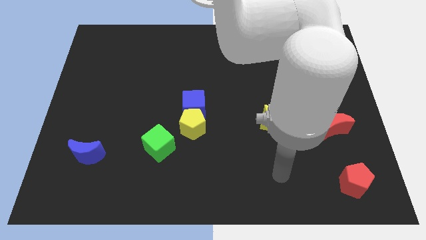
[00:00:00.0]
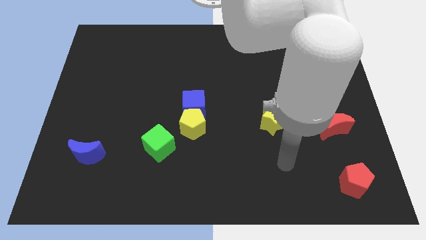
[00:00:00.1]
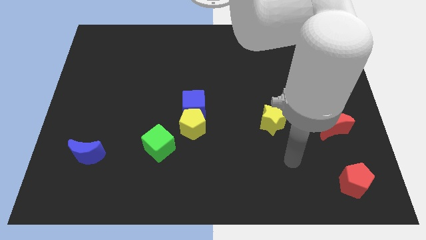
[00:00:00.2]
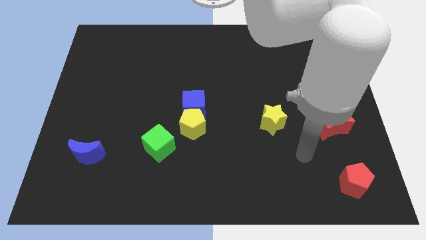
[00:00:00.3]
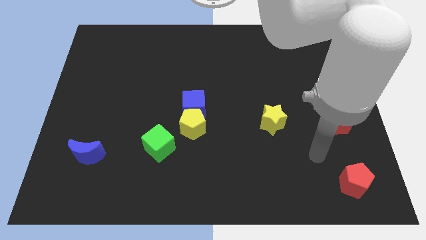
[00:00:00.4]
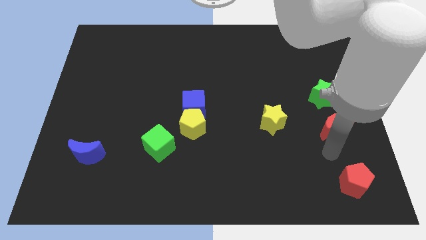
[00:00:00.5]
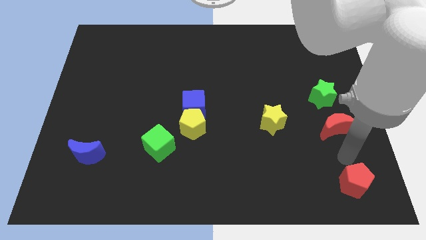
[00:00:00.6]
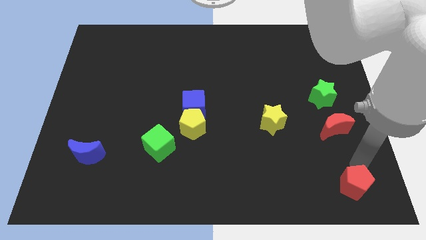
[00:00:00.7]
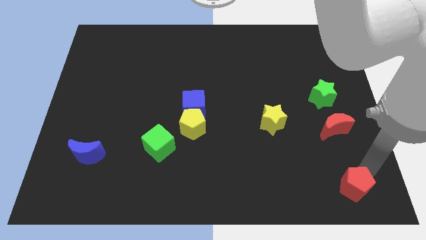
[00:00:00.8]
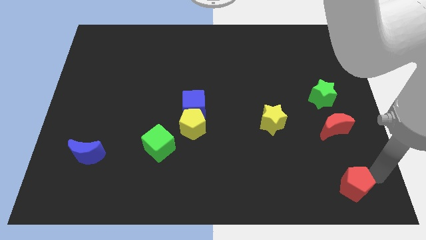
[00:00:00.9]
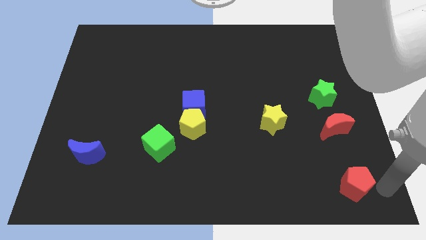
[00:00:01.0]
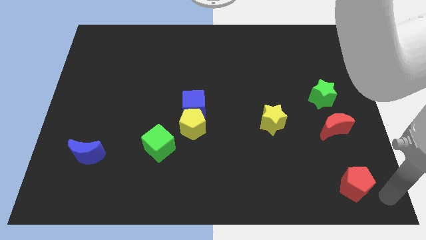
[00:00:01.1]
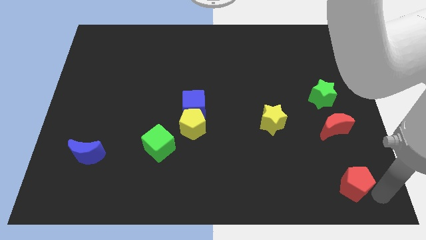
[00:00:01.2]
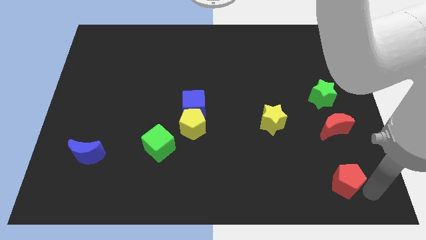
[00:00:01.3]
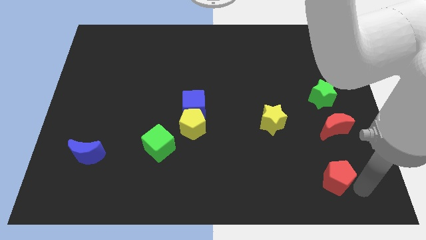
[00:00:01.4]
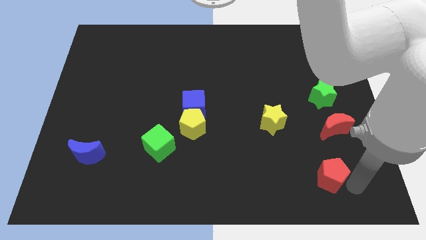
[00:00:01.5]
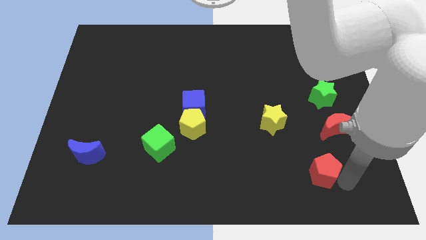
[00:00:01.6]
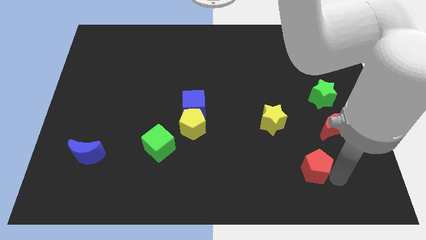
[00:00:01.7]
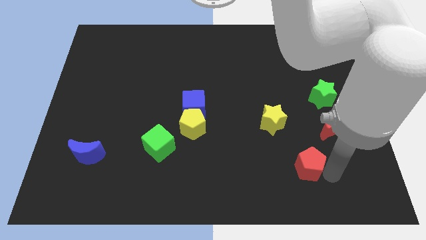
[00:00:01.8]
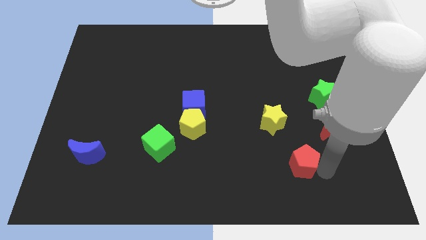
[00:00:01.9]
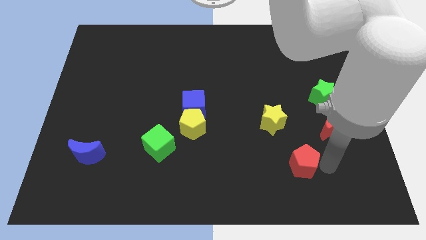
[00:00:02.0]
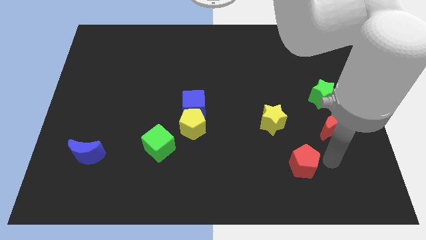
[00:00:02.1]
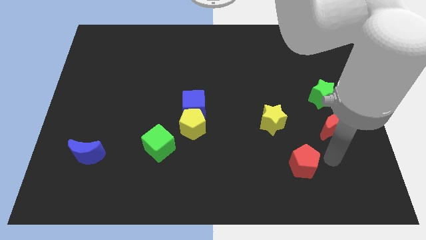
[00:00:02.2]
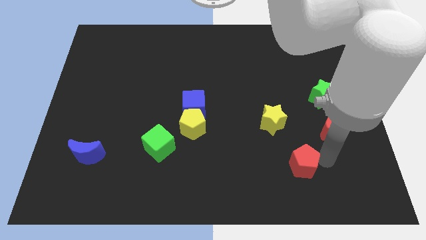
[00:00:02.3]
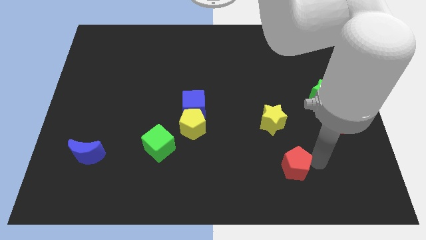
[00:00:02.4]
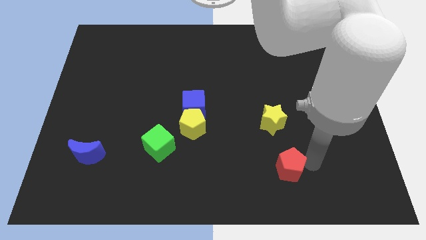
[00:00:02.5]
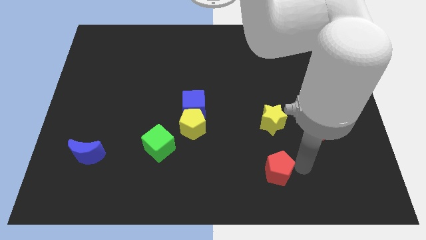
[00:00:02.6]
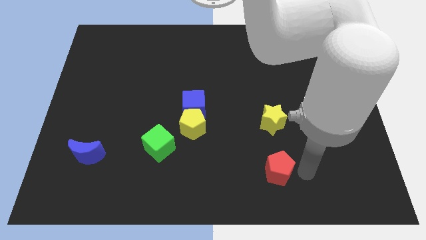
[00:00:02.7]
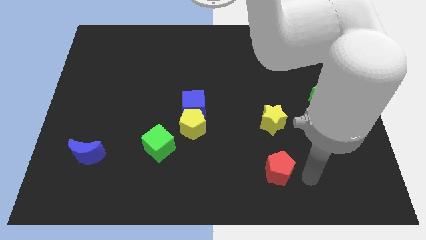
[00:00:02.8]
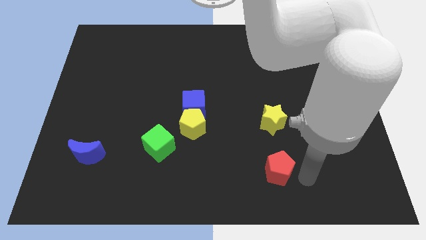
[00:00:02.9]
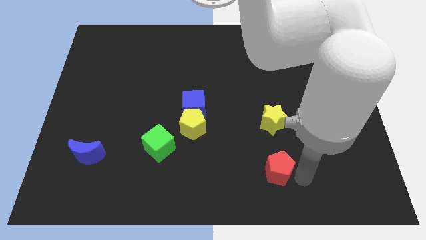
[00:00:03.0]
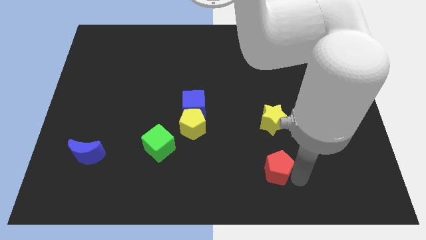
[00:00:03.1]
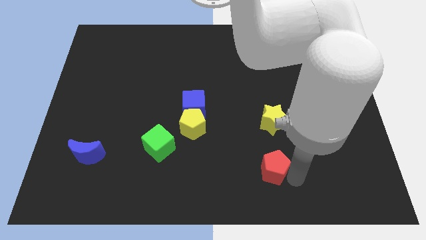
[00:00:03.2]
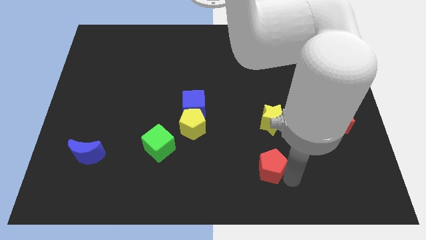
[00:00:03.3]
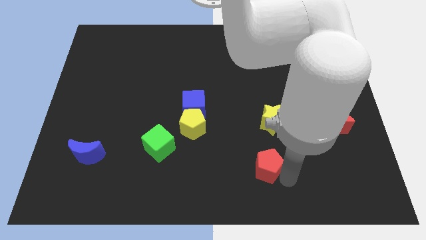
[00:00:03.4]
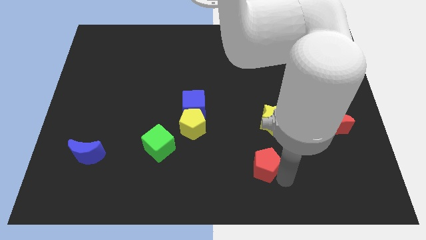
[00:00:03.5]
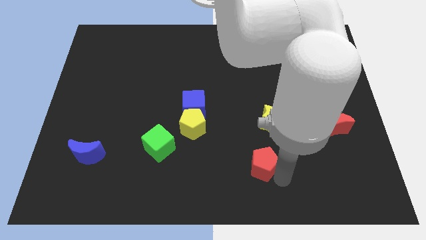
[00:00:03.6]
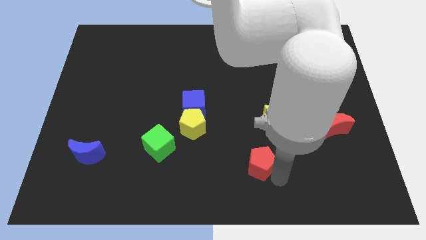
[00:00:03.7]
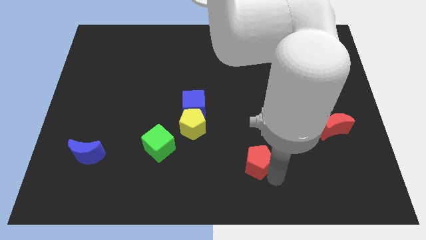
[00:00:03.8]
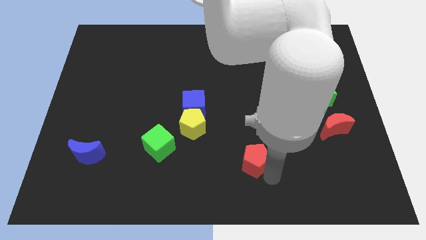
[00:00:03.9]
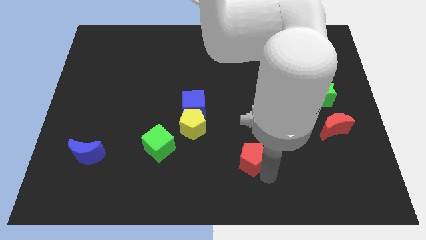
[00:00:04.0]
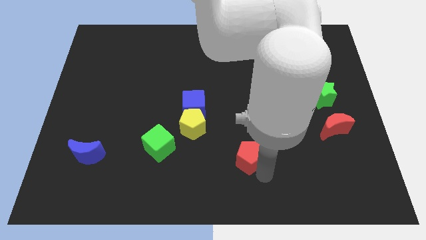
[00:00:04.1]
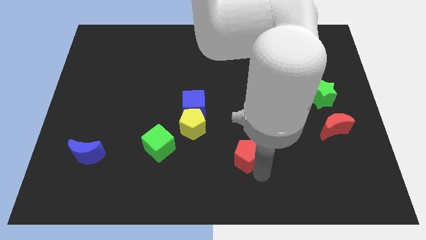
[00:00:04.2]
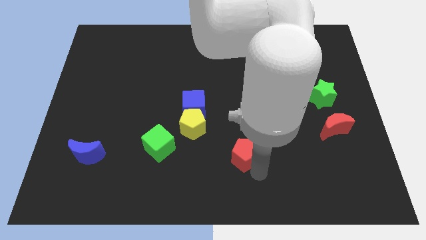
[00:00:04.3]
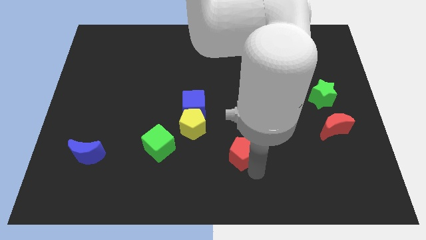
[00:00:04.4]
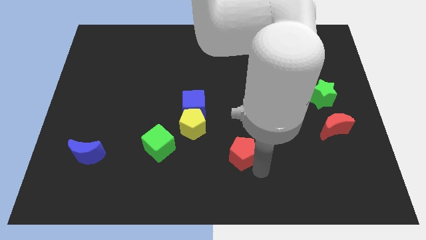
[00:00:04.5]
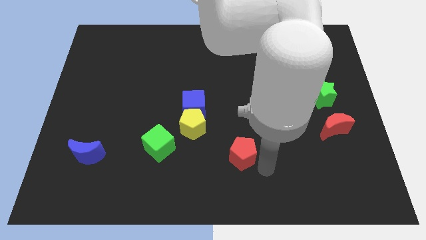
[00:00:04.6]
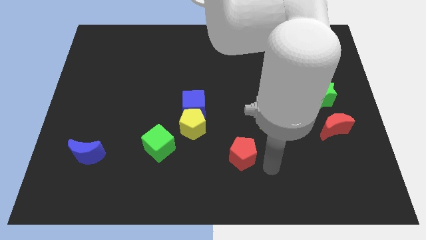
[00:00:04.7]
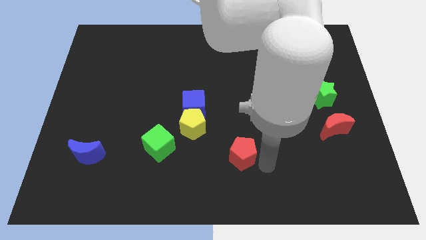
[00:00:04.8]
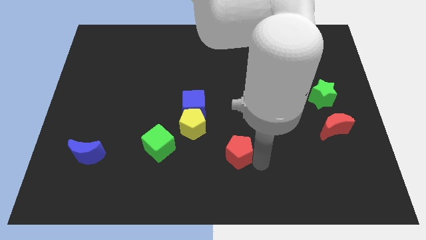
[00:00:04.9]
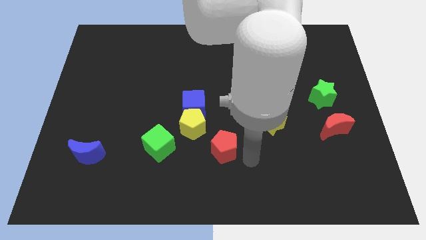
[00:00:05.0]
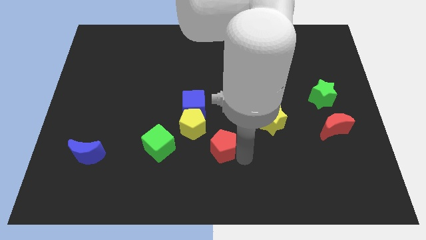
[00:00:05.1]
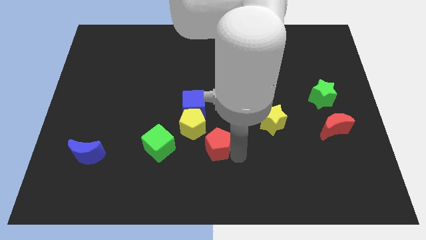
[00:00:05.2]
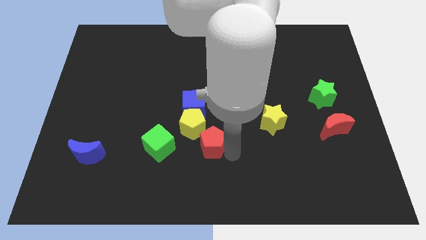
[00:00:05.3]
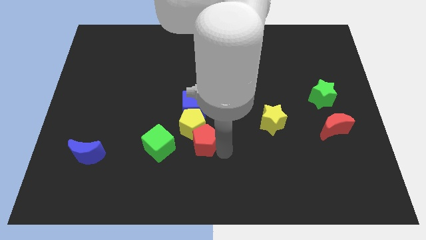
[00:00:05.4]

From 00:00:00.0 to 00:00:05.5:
push the red pentagon towards the yellow pentagon

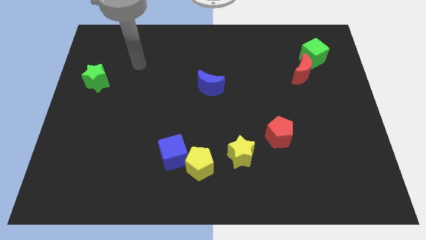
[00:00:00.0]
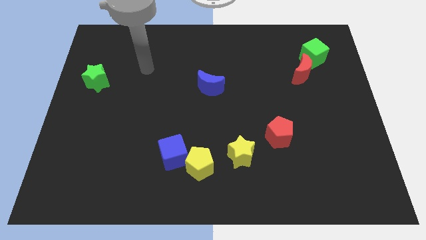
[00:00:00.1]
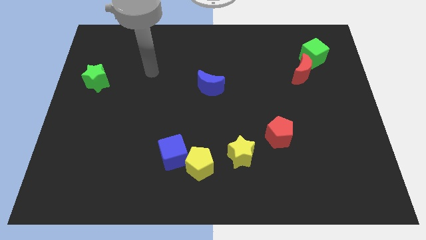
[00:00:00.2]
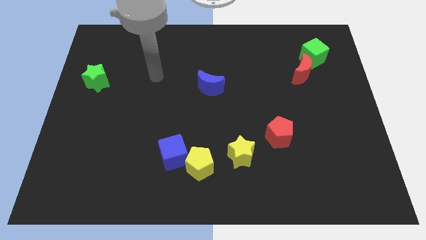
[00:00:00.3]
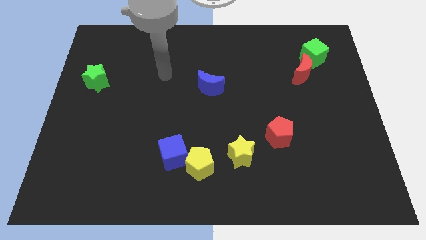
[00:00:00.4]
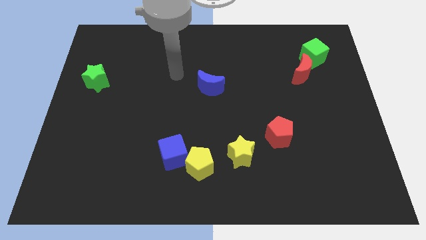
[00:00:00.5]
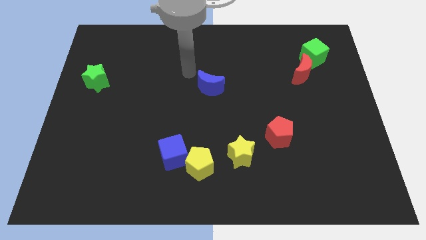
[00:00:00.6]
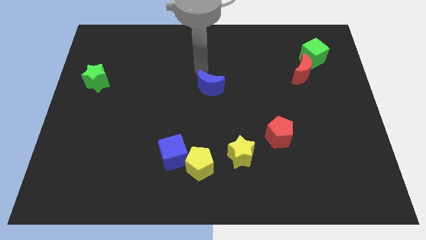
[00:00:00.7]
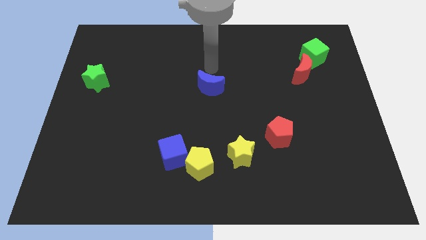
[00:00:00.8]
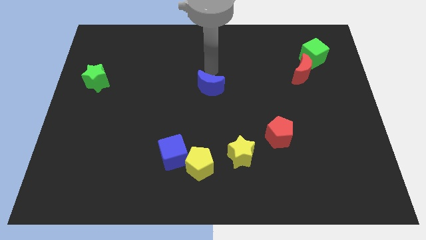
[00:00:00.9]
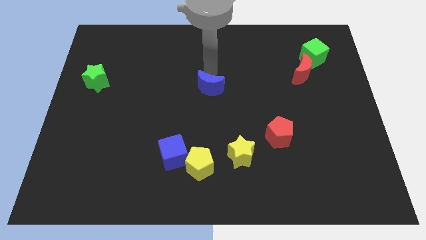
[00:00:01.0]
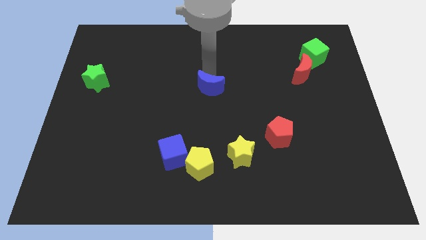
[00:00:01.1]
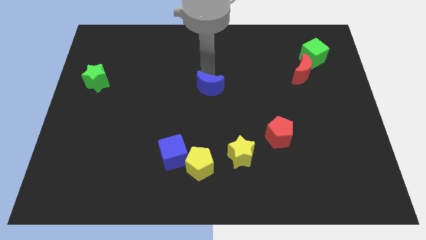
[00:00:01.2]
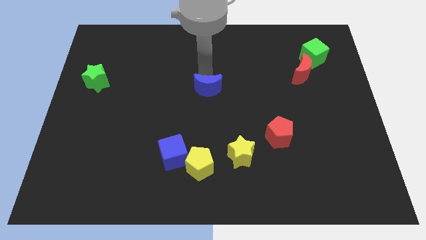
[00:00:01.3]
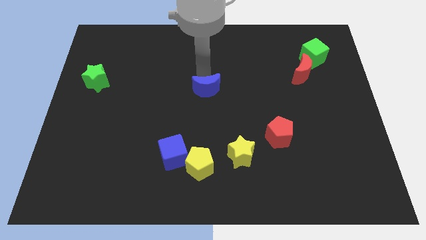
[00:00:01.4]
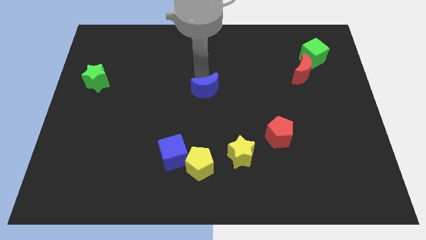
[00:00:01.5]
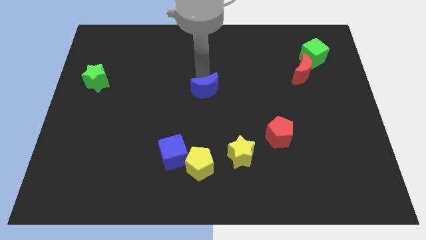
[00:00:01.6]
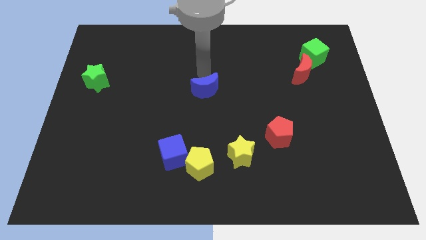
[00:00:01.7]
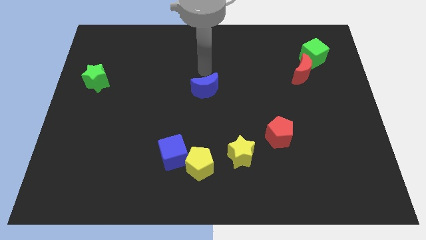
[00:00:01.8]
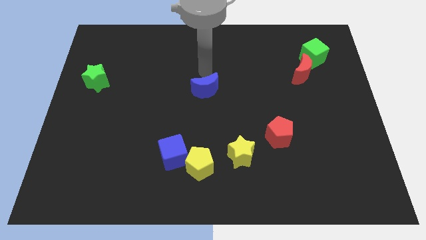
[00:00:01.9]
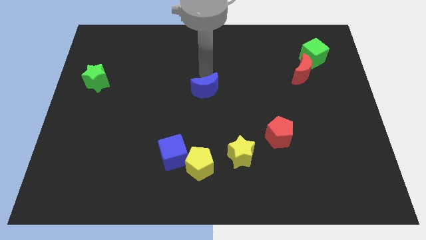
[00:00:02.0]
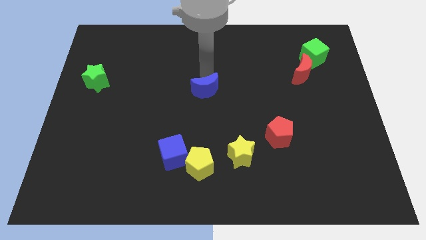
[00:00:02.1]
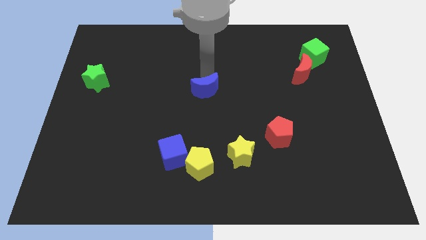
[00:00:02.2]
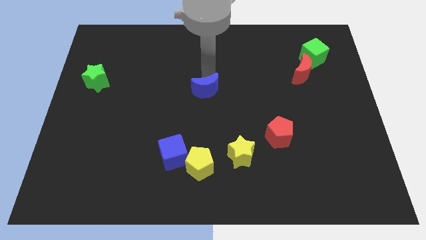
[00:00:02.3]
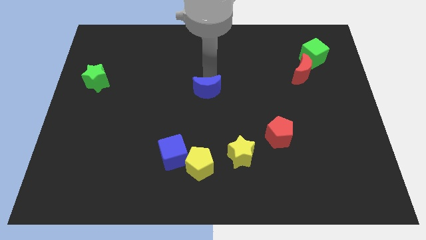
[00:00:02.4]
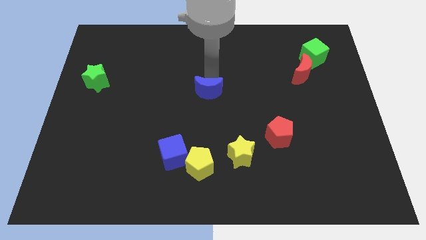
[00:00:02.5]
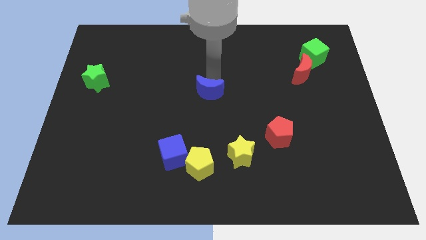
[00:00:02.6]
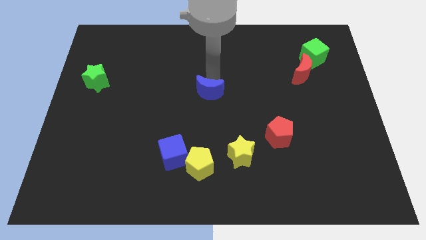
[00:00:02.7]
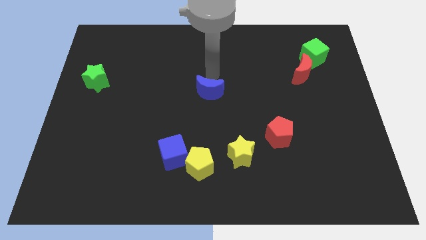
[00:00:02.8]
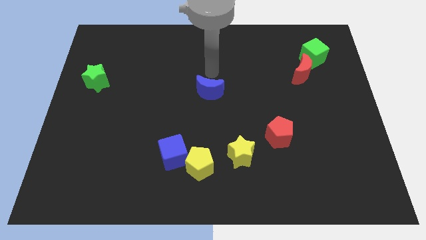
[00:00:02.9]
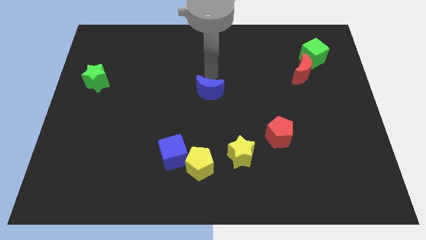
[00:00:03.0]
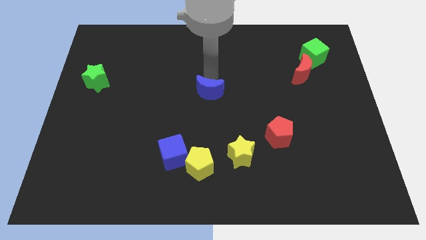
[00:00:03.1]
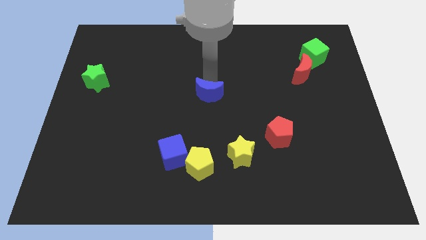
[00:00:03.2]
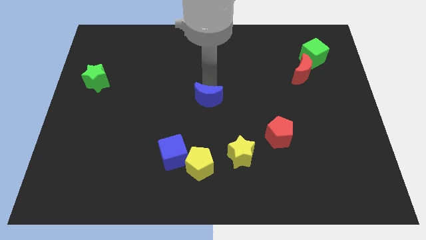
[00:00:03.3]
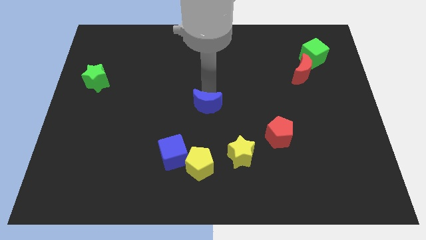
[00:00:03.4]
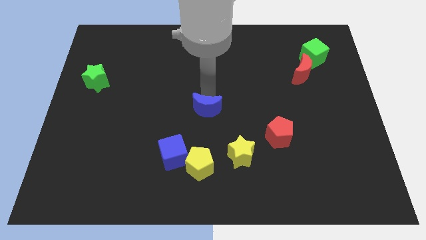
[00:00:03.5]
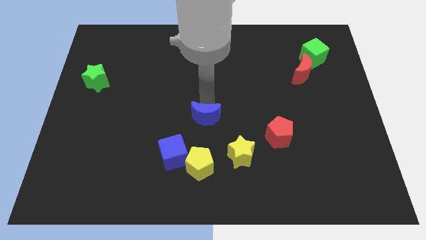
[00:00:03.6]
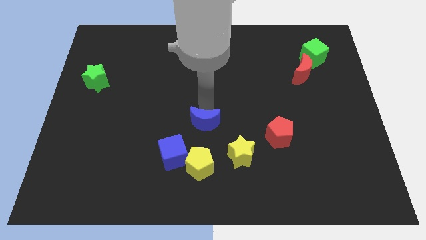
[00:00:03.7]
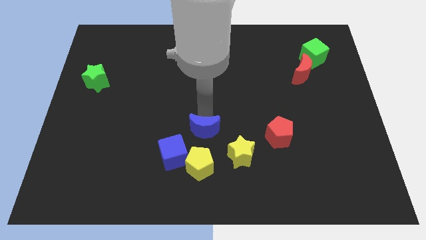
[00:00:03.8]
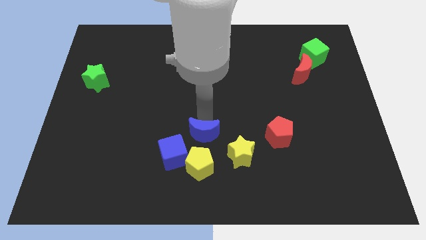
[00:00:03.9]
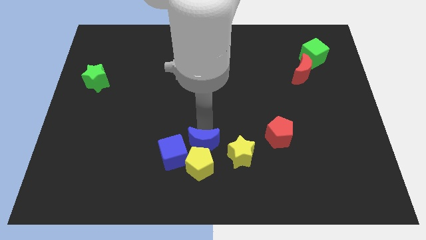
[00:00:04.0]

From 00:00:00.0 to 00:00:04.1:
put the blue moon towards the yellow pentagon
